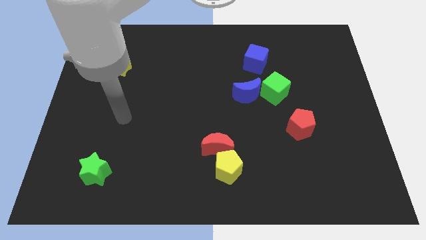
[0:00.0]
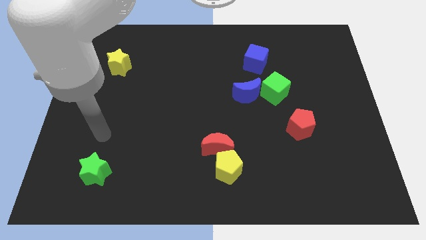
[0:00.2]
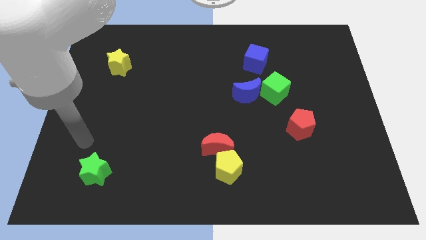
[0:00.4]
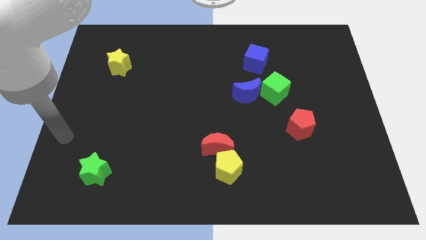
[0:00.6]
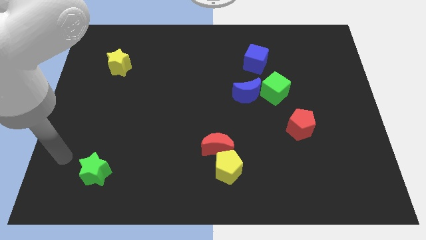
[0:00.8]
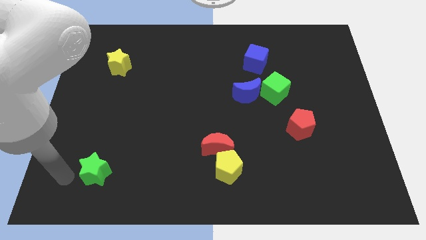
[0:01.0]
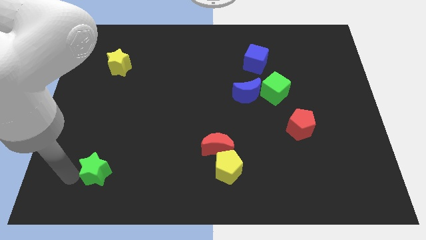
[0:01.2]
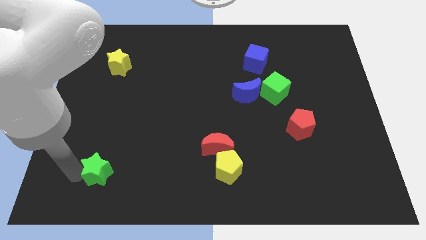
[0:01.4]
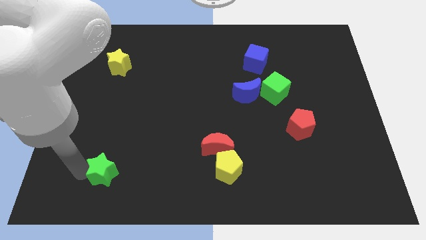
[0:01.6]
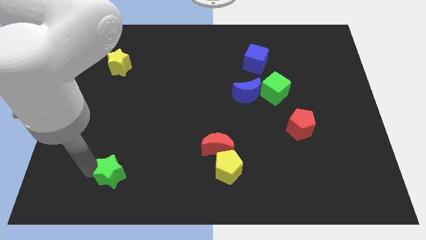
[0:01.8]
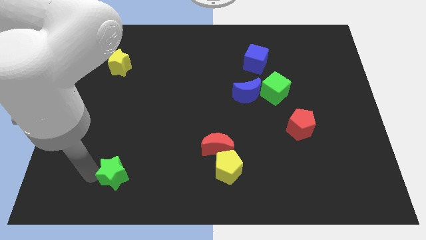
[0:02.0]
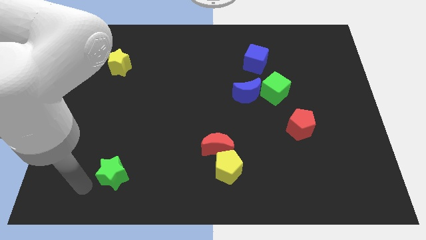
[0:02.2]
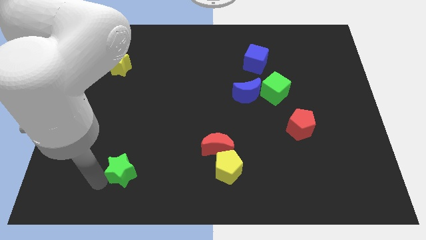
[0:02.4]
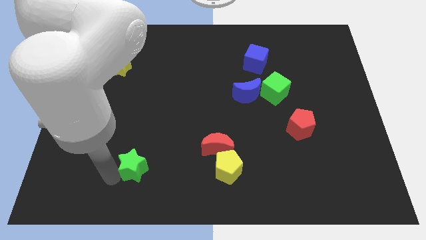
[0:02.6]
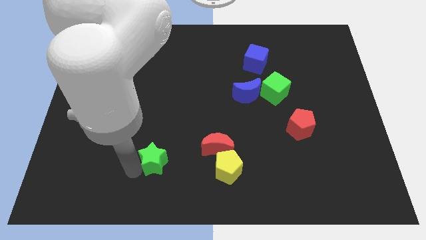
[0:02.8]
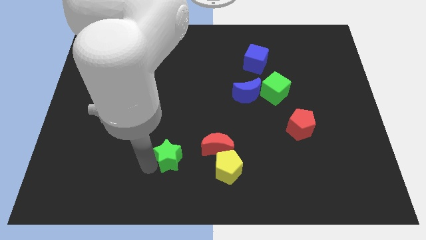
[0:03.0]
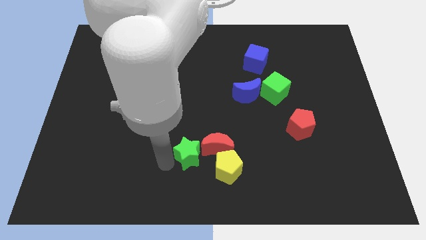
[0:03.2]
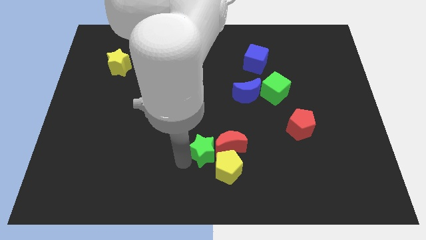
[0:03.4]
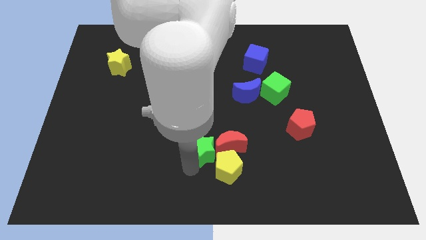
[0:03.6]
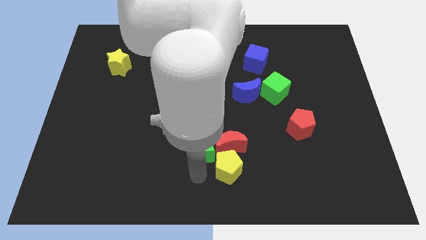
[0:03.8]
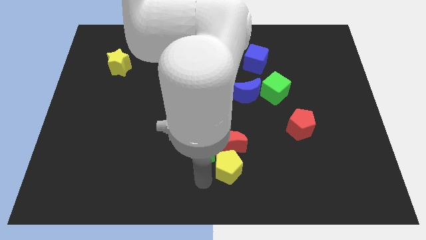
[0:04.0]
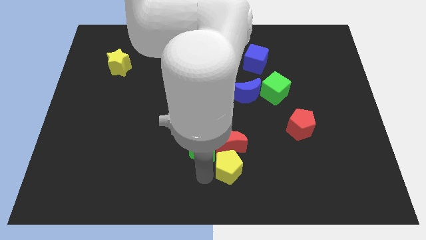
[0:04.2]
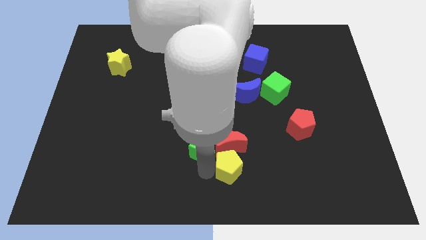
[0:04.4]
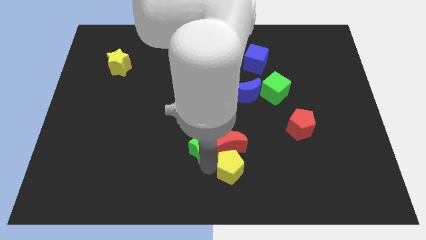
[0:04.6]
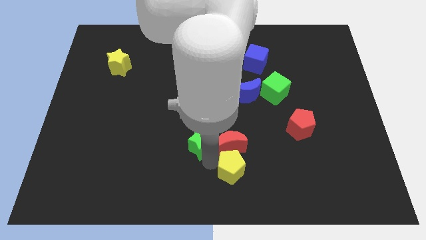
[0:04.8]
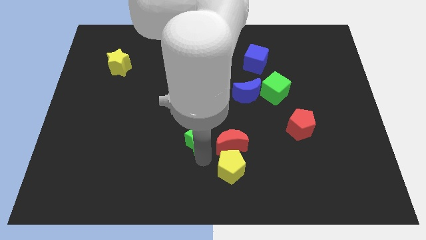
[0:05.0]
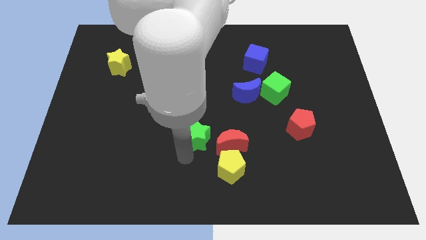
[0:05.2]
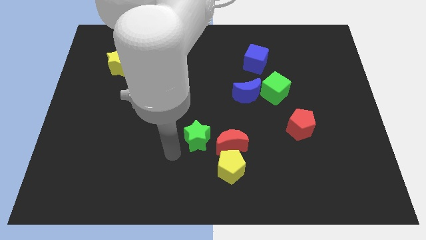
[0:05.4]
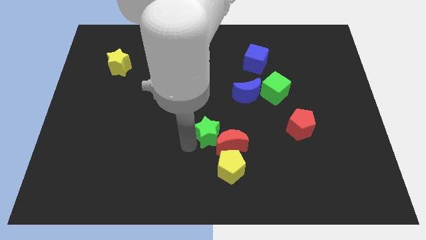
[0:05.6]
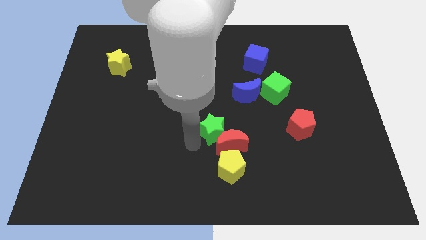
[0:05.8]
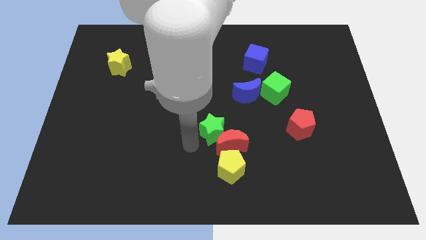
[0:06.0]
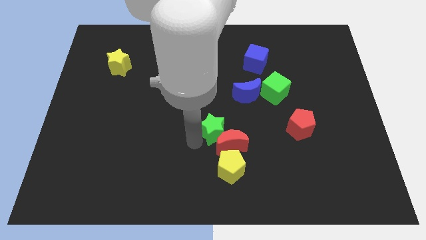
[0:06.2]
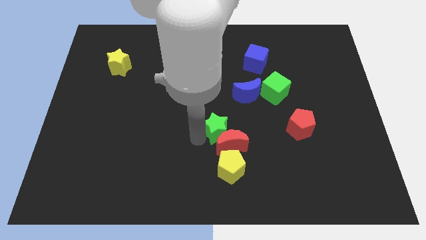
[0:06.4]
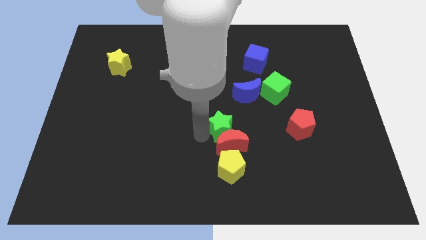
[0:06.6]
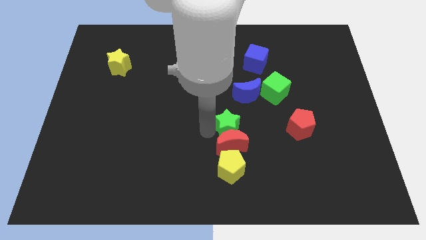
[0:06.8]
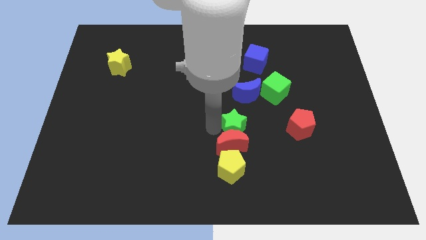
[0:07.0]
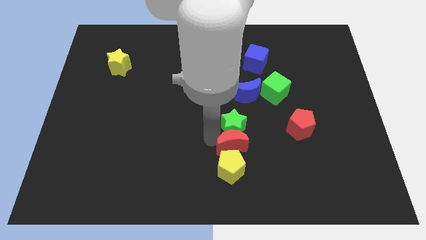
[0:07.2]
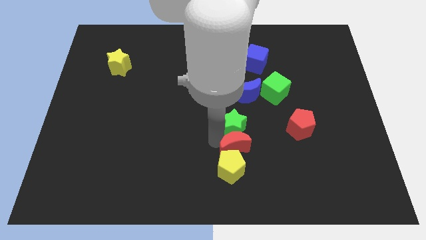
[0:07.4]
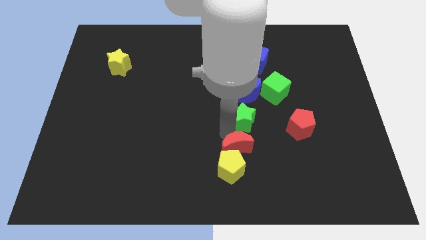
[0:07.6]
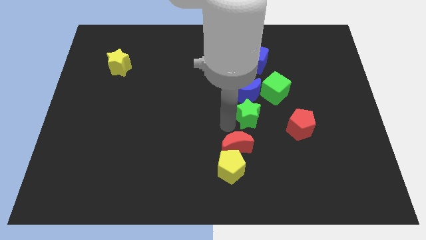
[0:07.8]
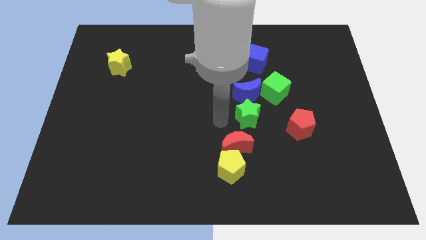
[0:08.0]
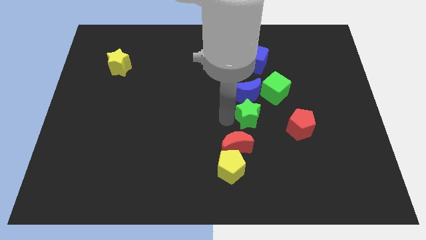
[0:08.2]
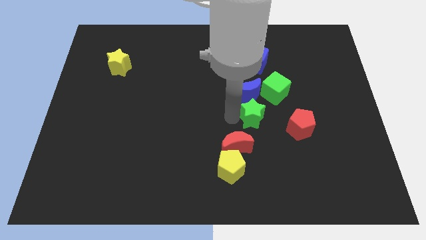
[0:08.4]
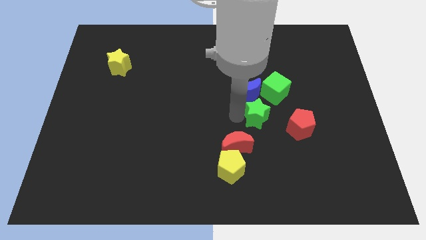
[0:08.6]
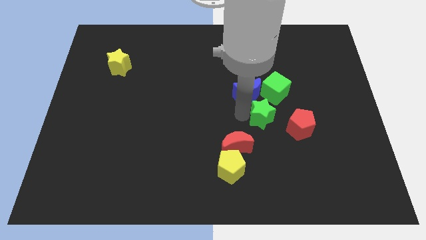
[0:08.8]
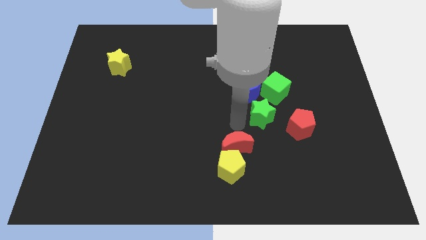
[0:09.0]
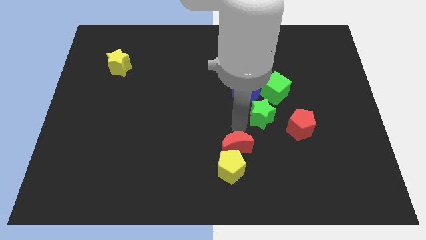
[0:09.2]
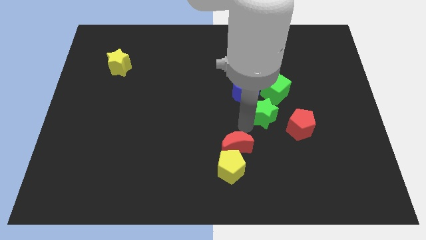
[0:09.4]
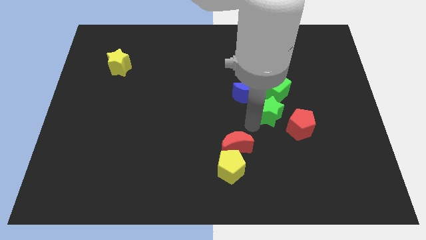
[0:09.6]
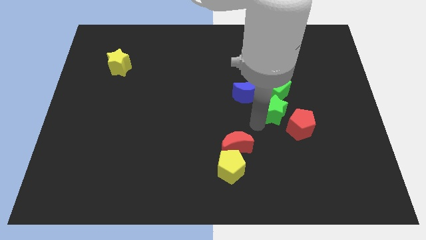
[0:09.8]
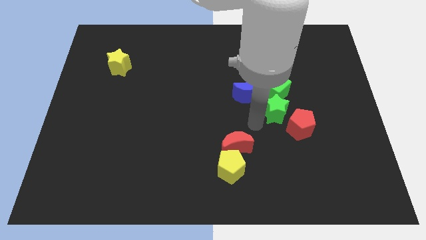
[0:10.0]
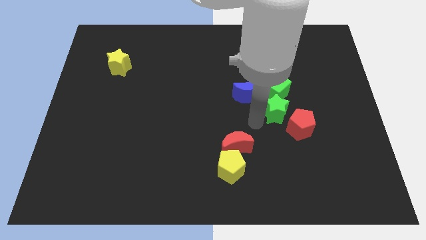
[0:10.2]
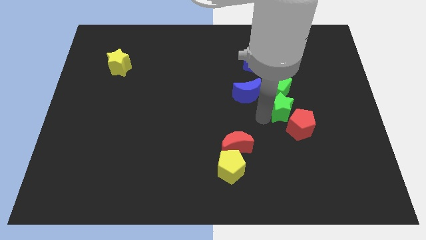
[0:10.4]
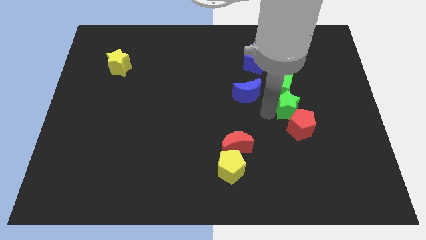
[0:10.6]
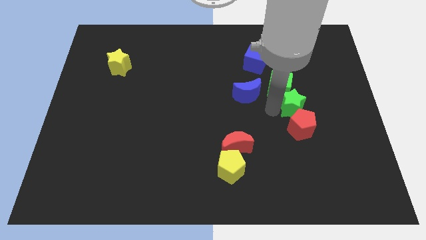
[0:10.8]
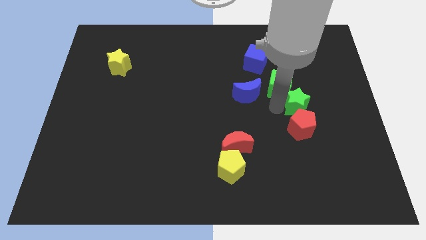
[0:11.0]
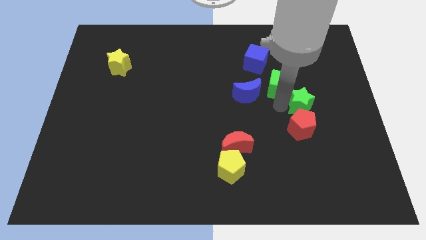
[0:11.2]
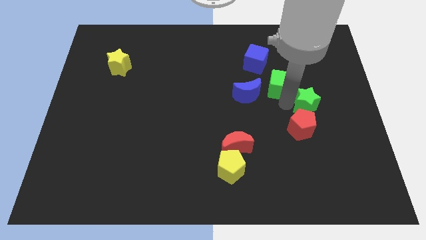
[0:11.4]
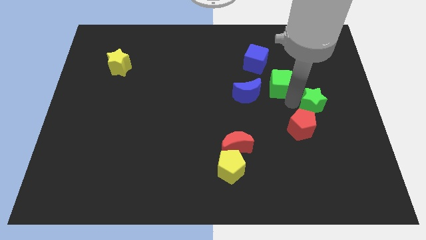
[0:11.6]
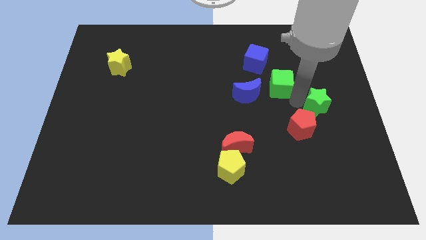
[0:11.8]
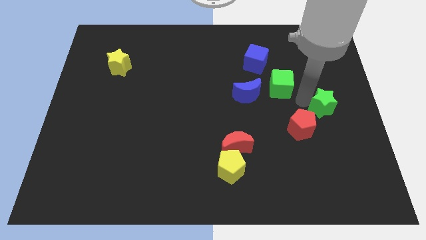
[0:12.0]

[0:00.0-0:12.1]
move the green star to the center right

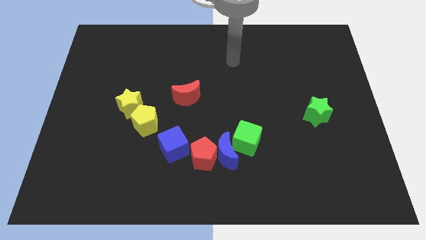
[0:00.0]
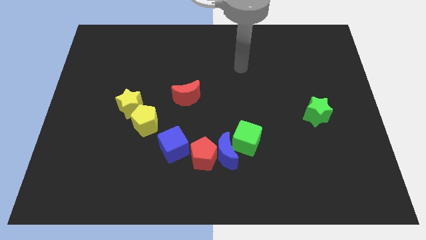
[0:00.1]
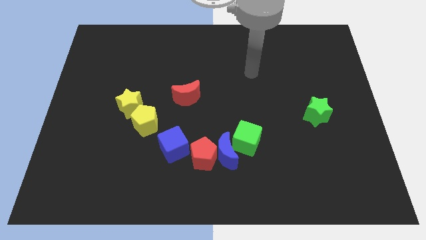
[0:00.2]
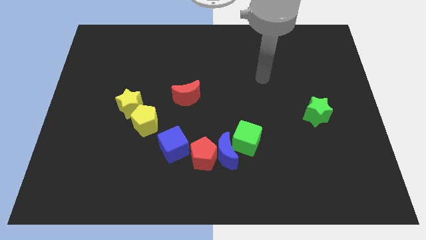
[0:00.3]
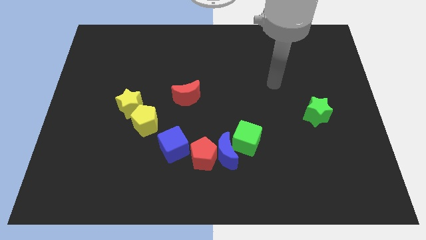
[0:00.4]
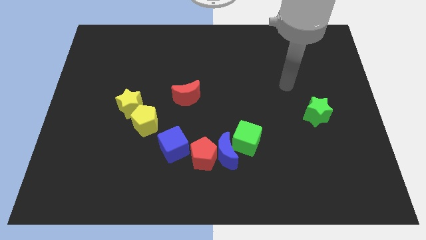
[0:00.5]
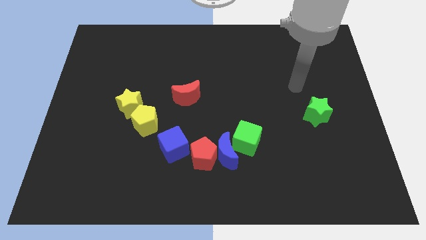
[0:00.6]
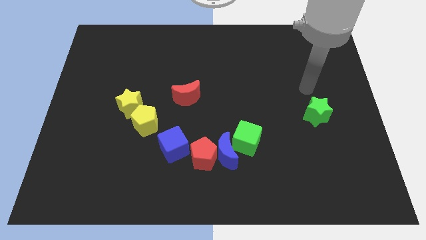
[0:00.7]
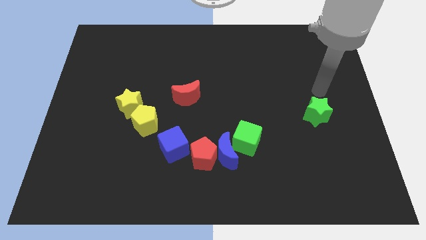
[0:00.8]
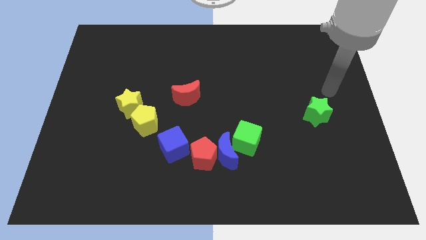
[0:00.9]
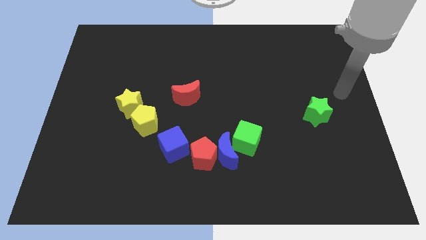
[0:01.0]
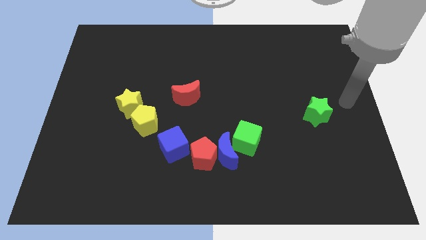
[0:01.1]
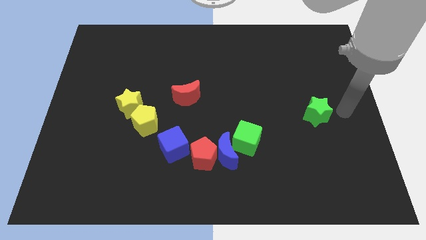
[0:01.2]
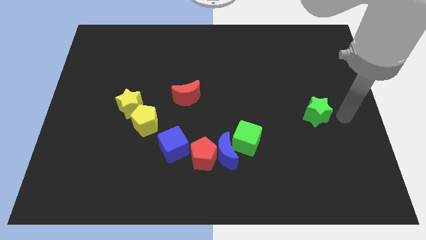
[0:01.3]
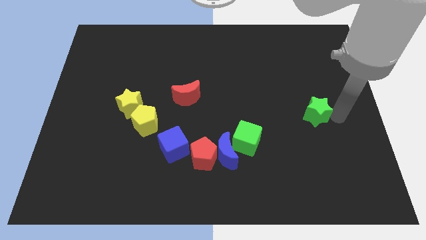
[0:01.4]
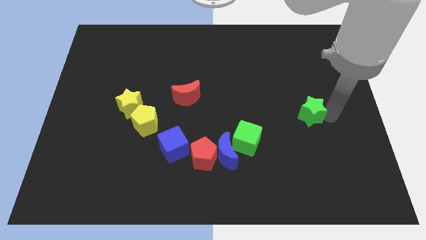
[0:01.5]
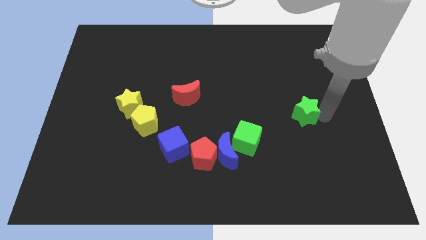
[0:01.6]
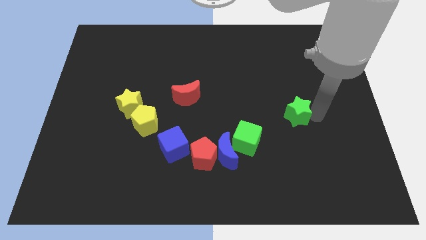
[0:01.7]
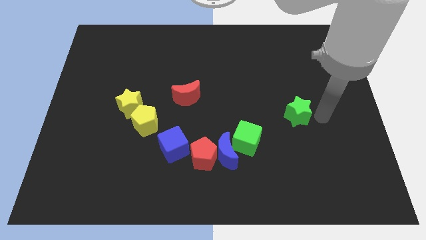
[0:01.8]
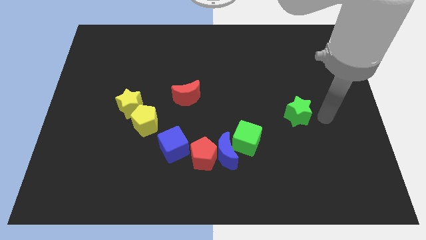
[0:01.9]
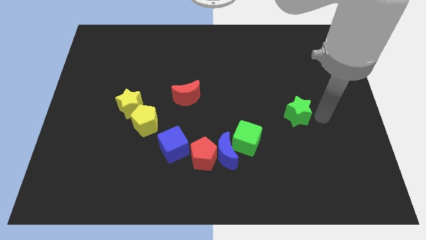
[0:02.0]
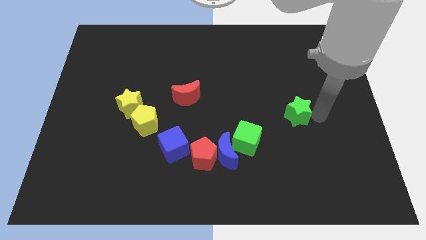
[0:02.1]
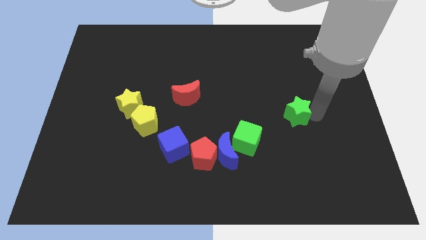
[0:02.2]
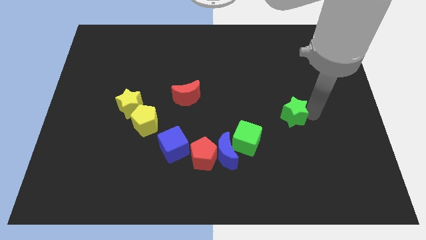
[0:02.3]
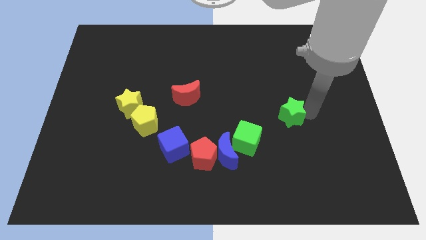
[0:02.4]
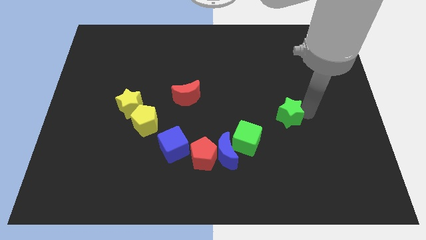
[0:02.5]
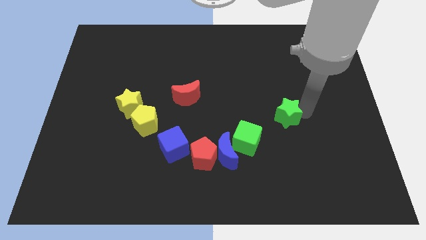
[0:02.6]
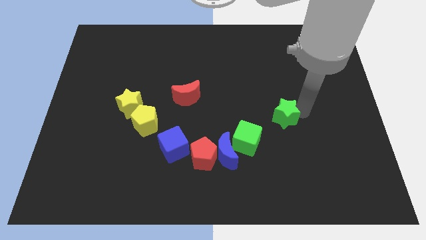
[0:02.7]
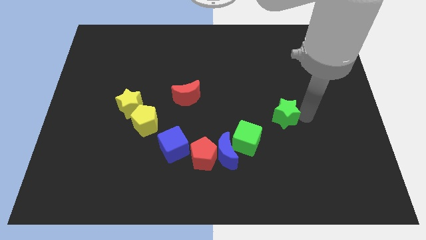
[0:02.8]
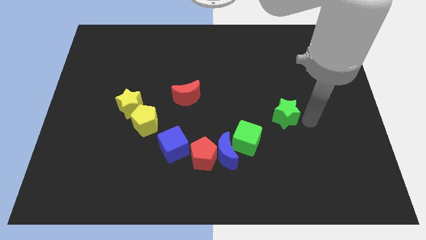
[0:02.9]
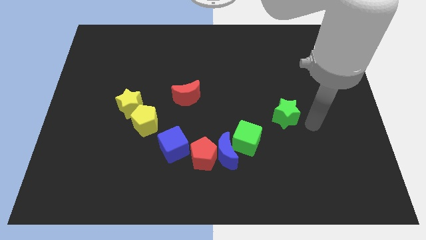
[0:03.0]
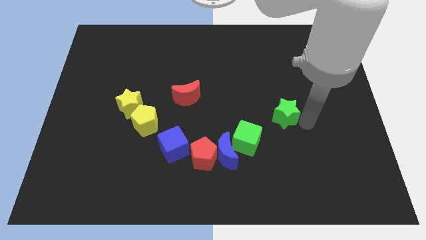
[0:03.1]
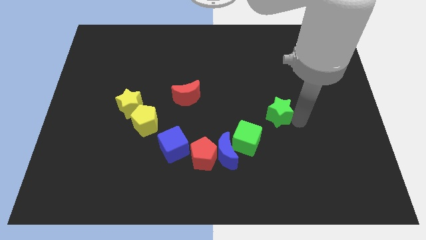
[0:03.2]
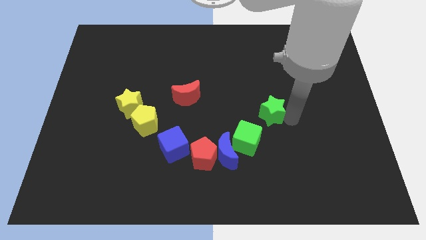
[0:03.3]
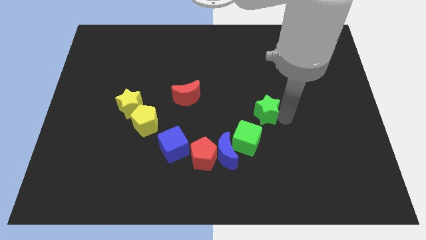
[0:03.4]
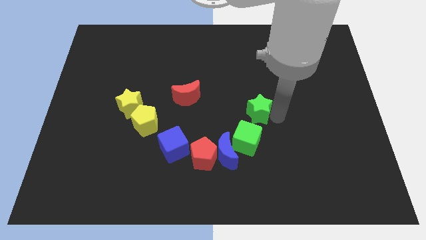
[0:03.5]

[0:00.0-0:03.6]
put the green star to the center of the board
